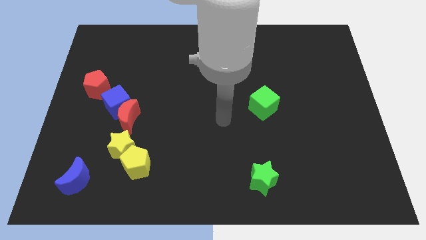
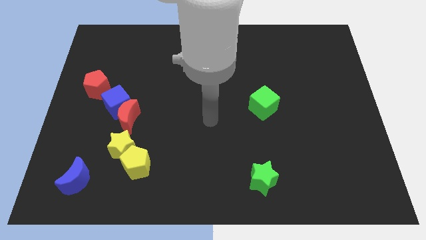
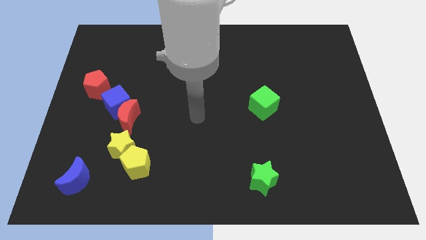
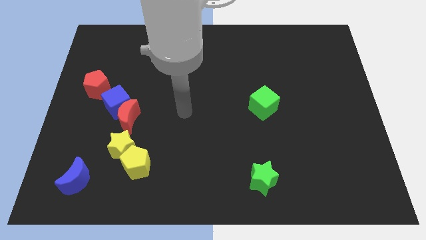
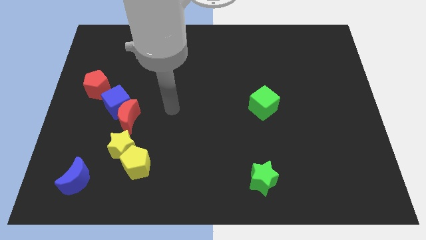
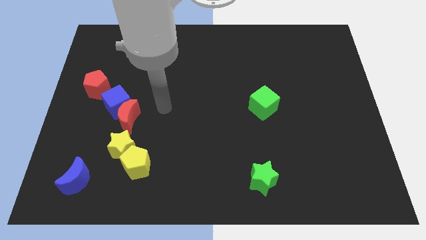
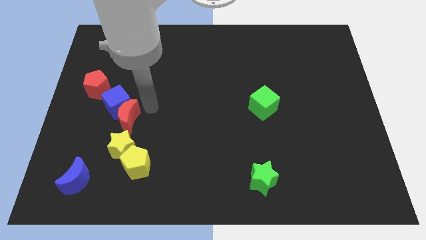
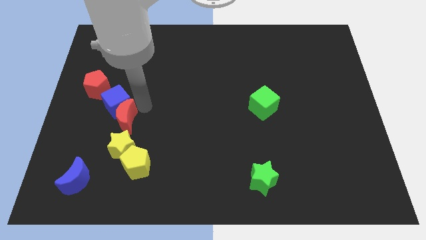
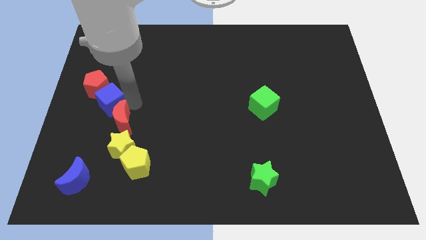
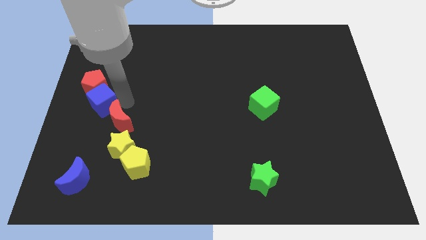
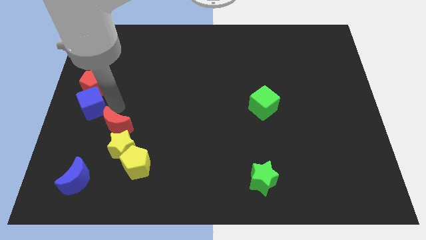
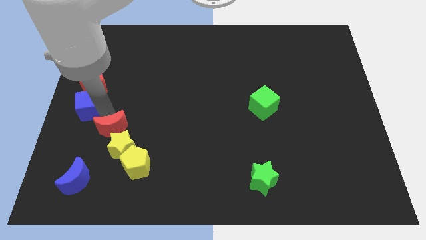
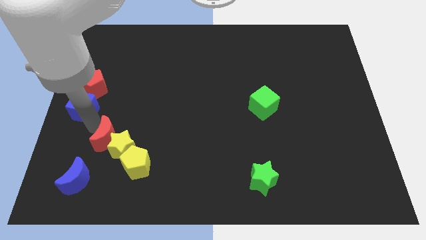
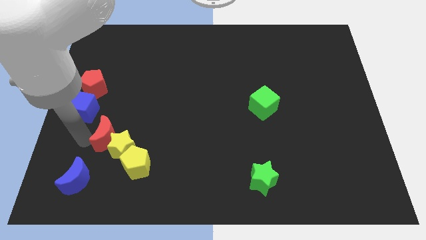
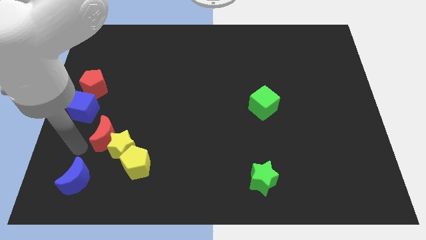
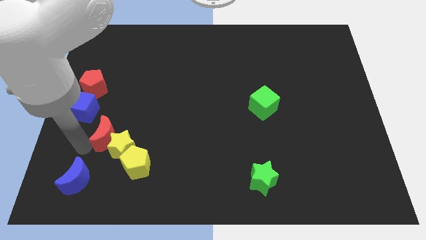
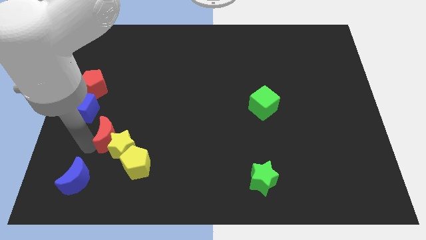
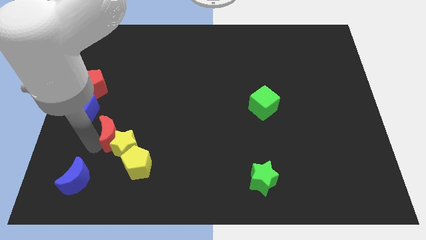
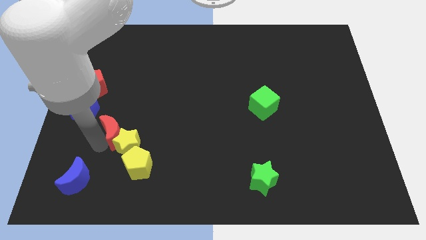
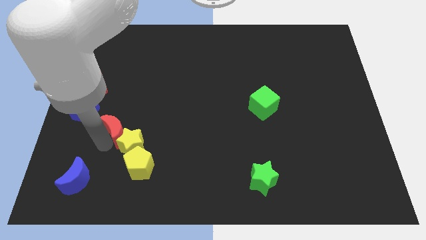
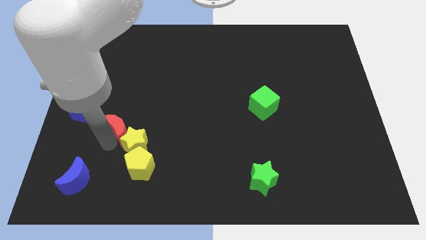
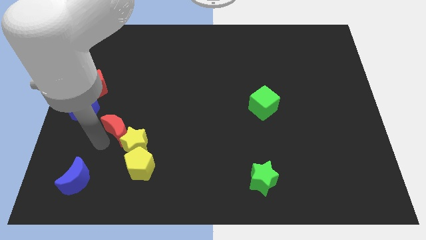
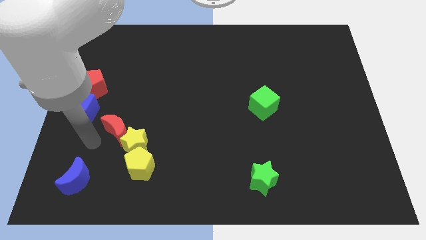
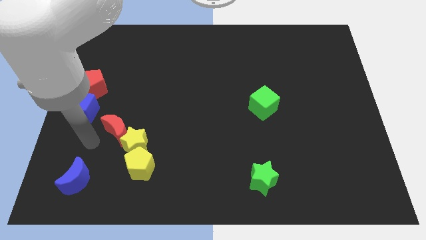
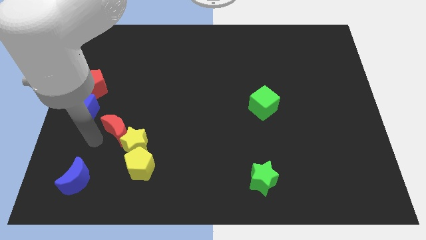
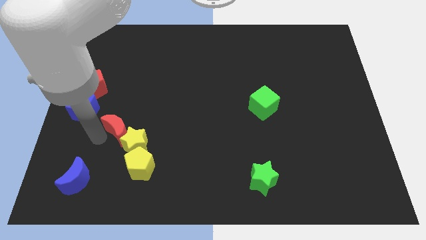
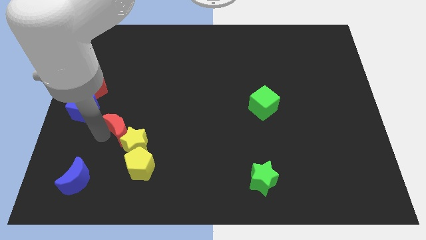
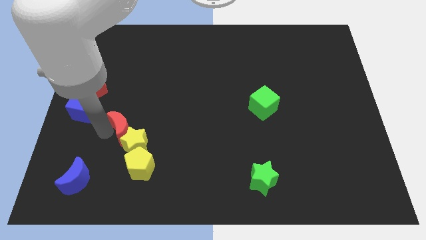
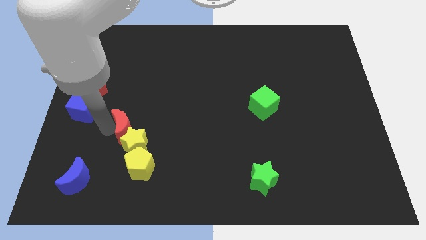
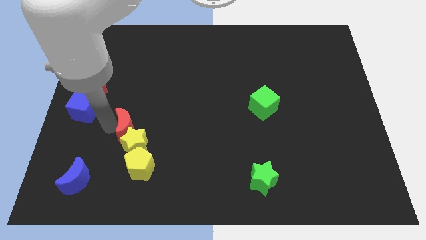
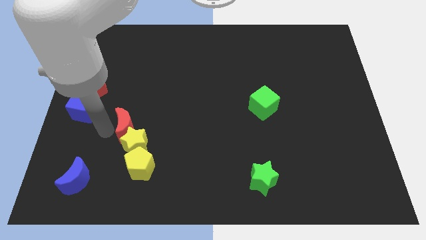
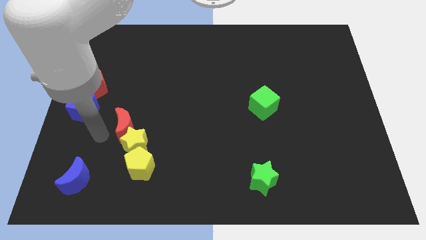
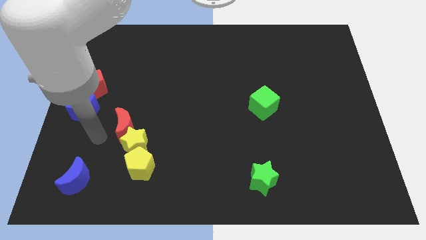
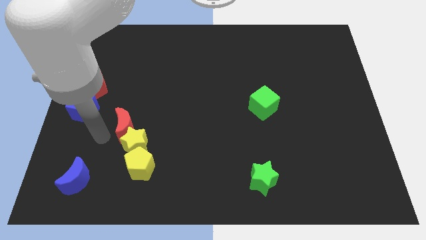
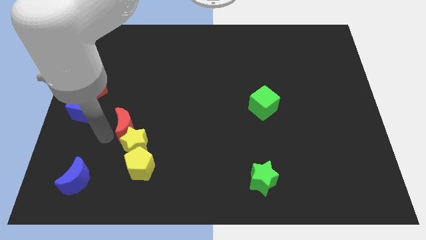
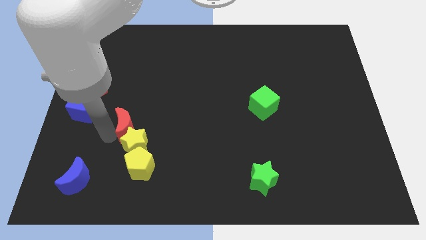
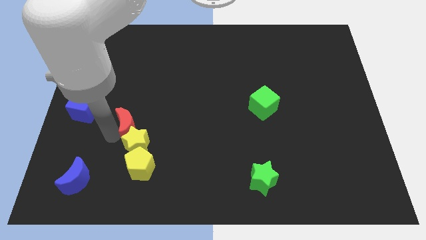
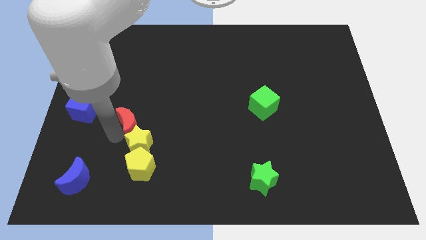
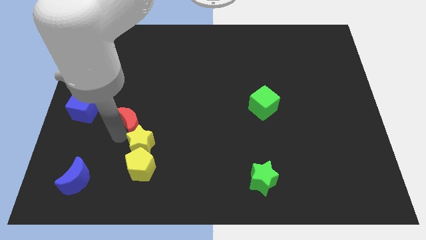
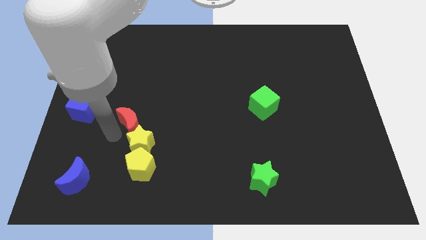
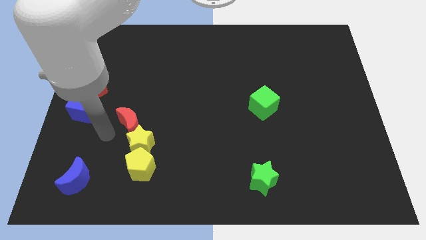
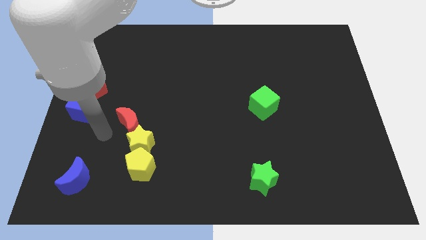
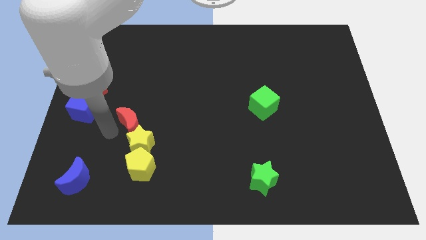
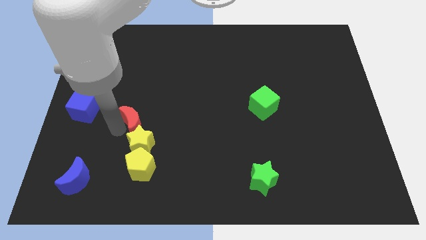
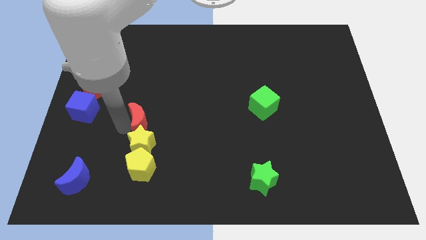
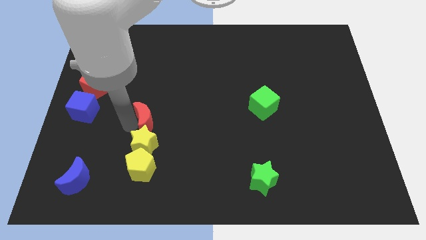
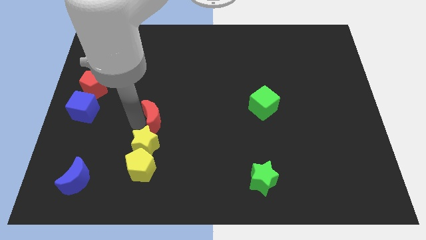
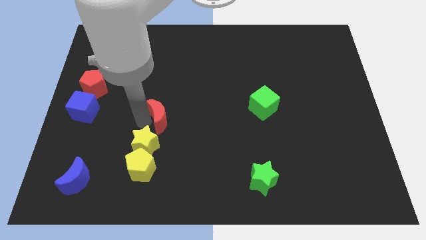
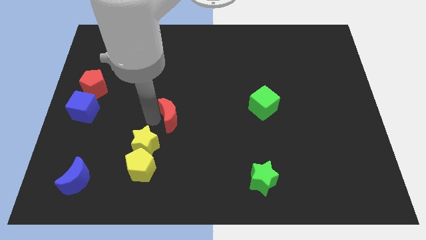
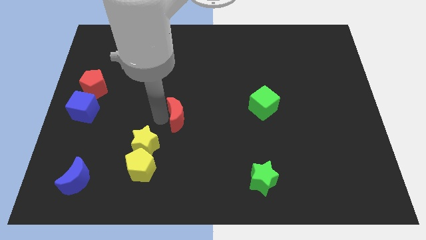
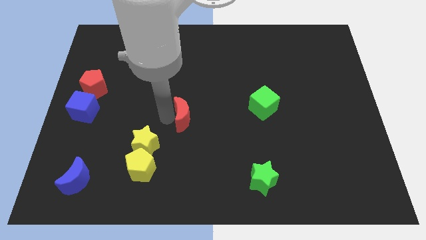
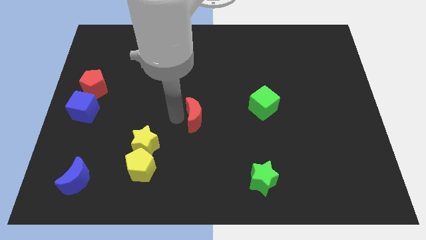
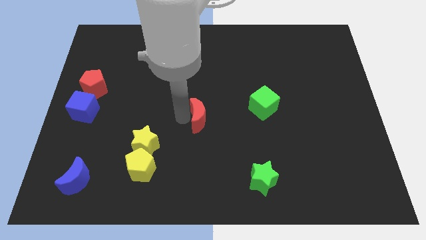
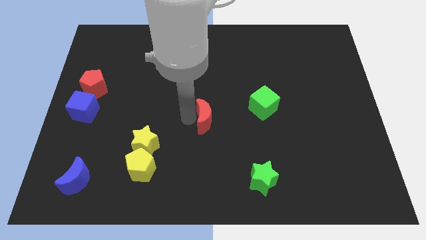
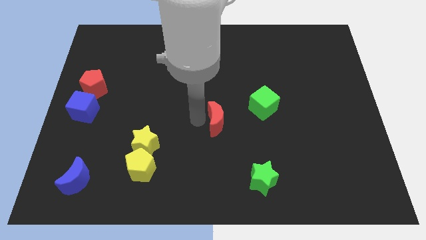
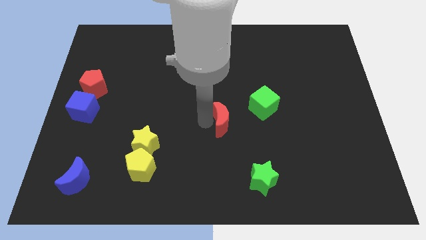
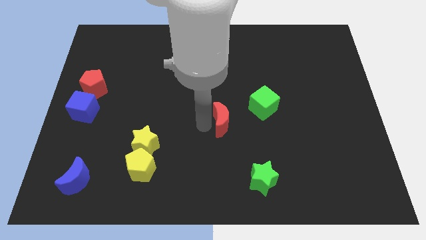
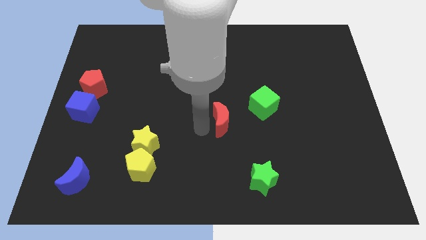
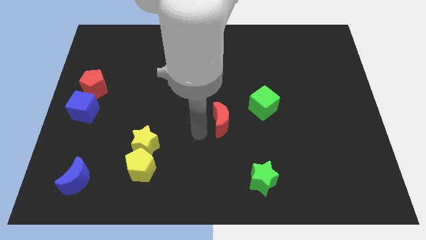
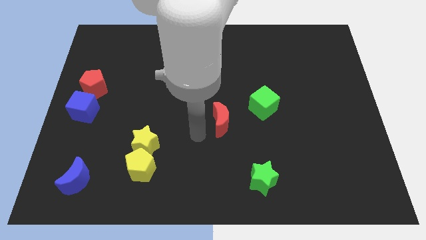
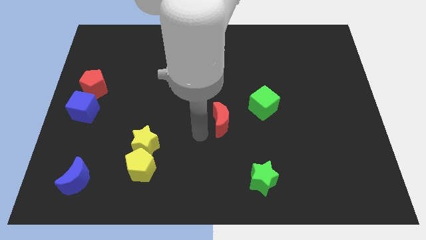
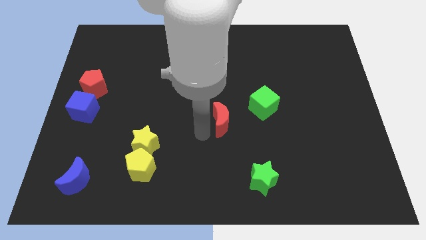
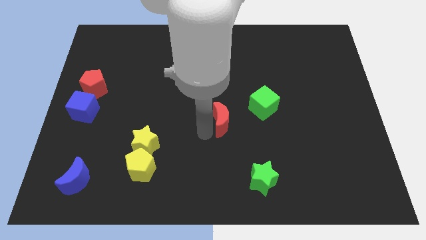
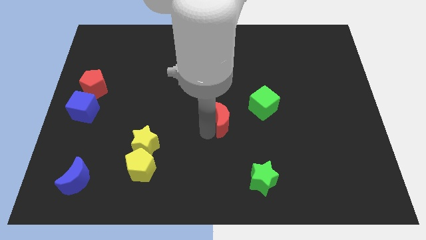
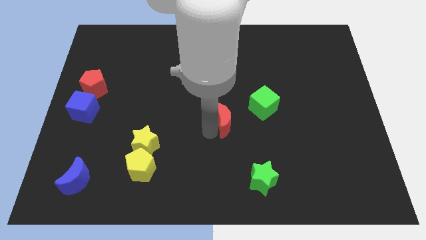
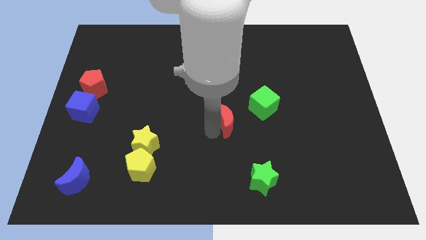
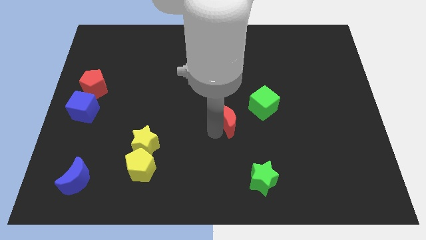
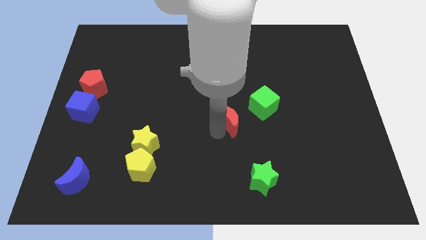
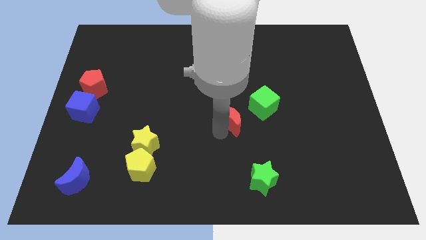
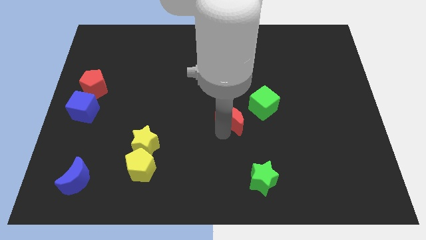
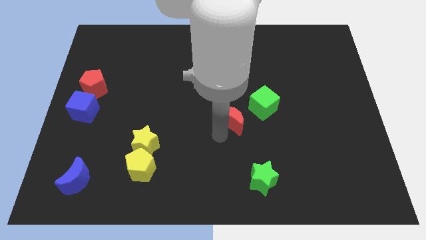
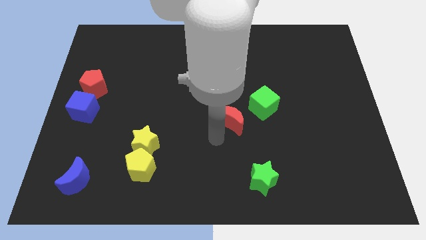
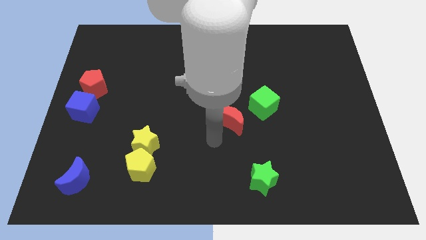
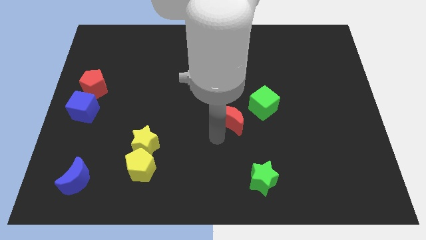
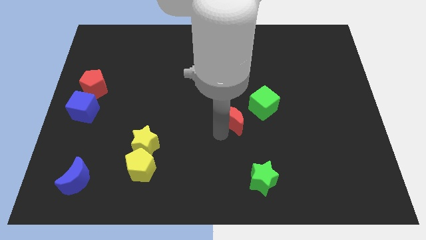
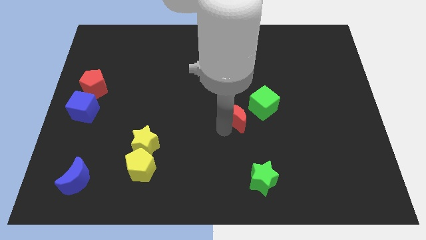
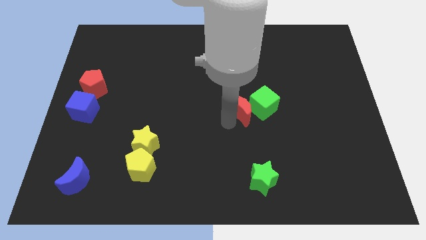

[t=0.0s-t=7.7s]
move the red moon towards the green cube
